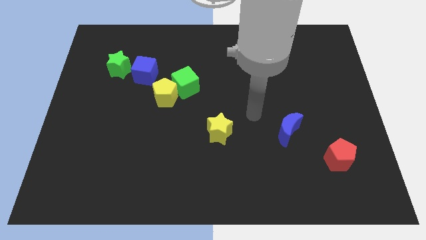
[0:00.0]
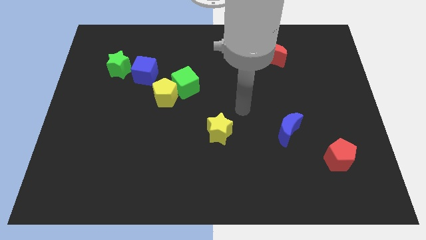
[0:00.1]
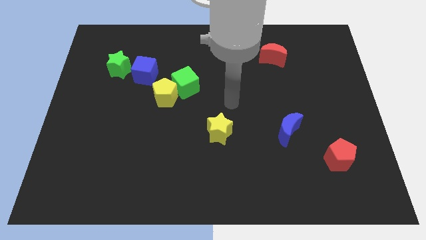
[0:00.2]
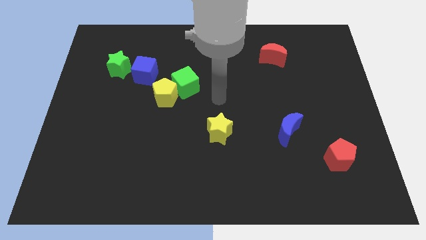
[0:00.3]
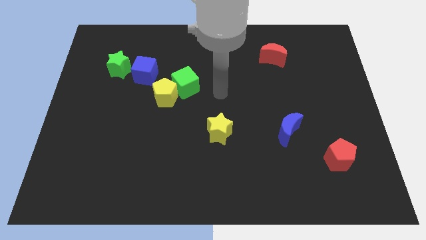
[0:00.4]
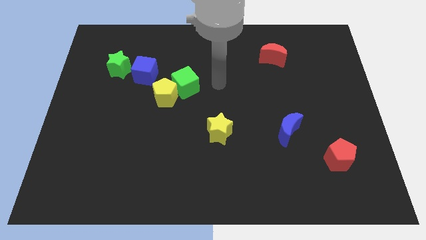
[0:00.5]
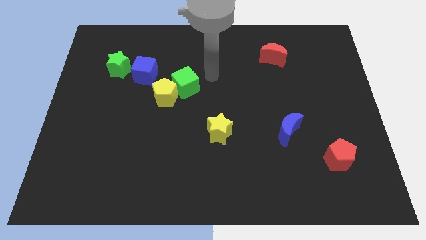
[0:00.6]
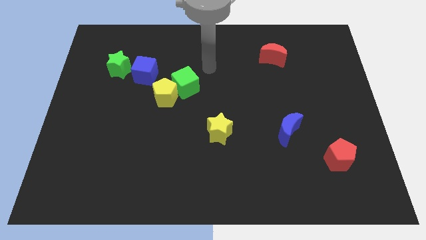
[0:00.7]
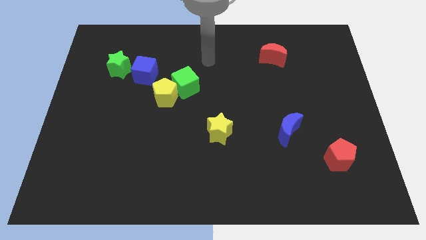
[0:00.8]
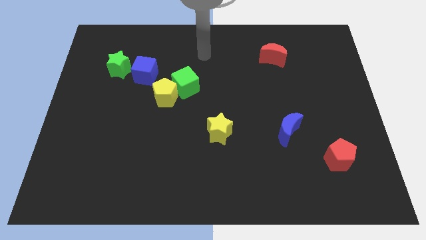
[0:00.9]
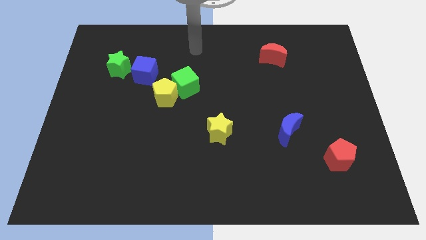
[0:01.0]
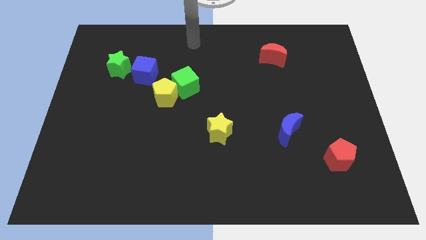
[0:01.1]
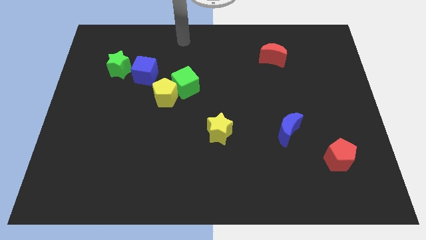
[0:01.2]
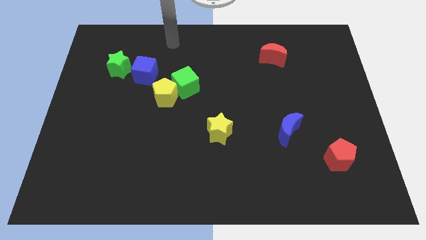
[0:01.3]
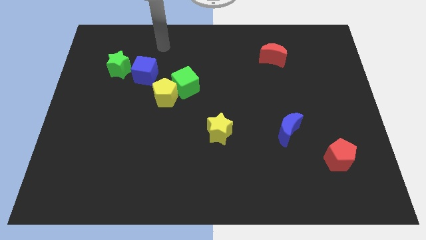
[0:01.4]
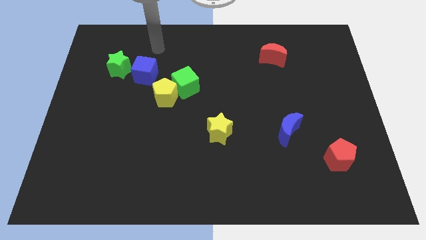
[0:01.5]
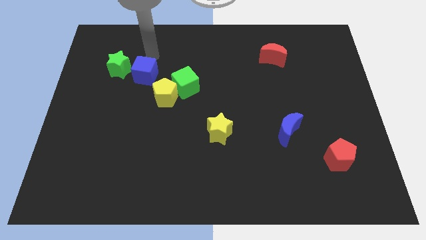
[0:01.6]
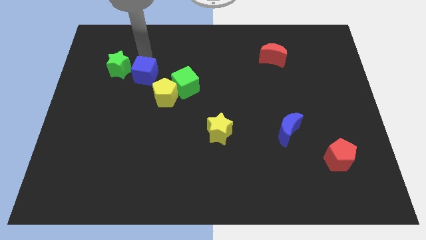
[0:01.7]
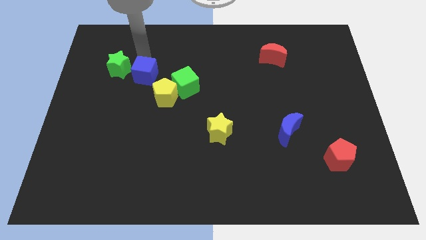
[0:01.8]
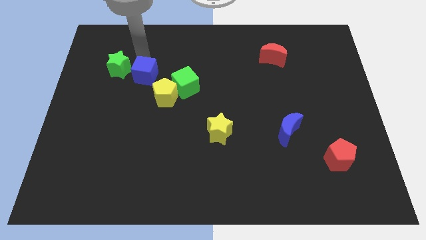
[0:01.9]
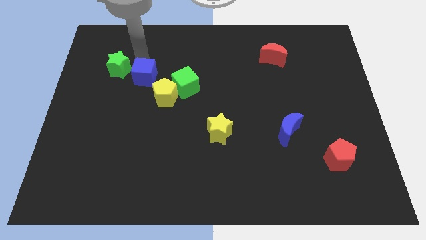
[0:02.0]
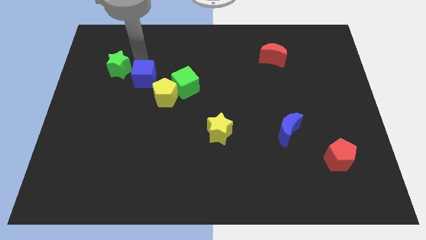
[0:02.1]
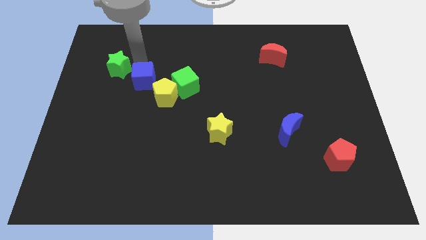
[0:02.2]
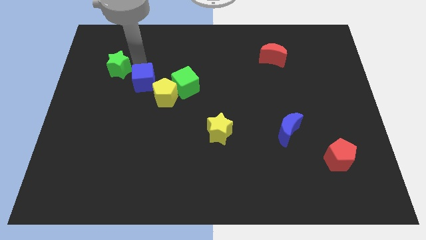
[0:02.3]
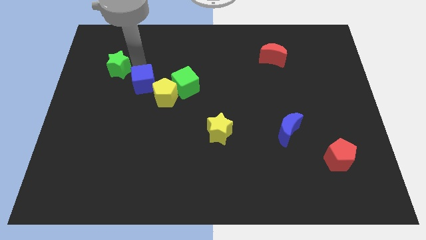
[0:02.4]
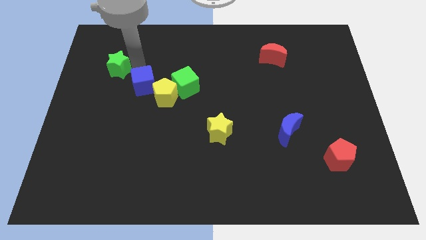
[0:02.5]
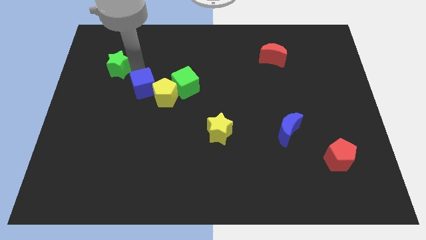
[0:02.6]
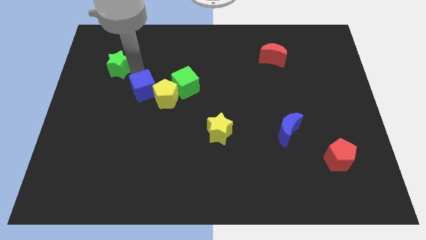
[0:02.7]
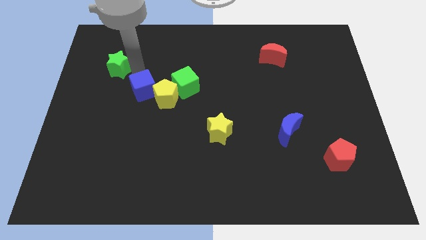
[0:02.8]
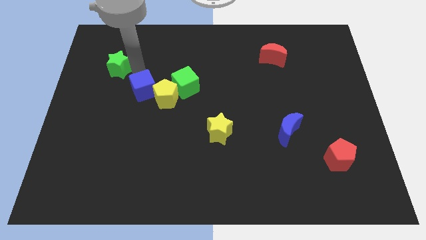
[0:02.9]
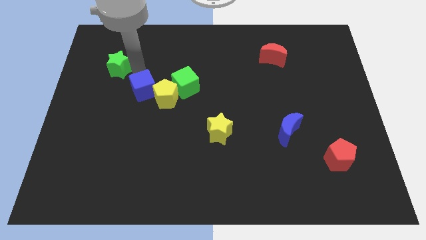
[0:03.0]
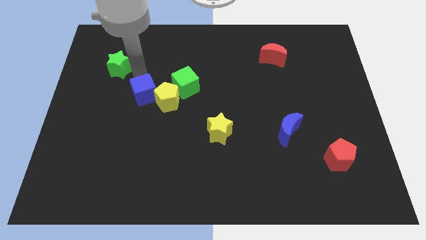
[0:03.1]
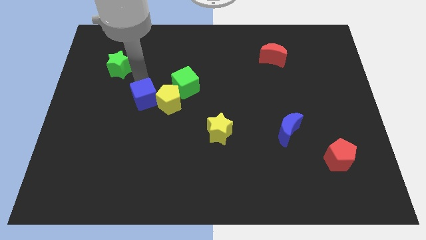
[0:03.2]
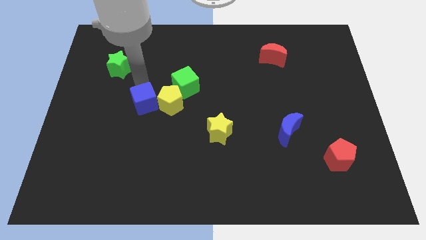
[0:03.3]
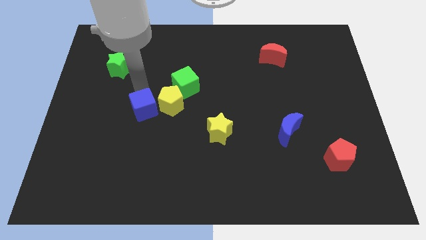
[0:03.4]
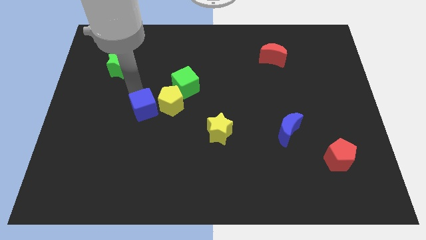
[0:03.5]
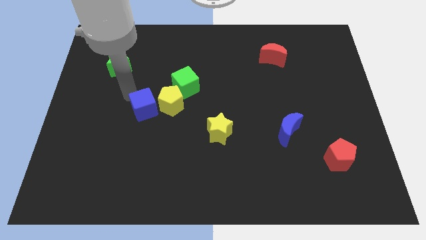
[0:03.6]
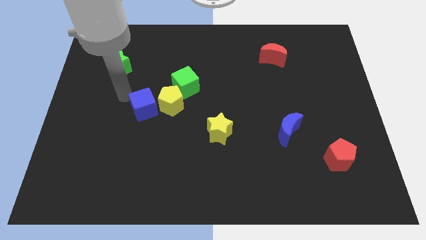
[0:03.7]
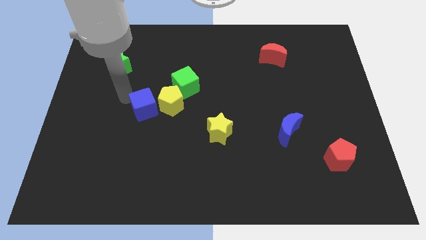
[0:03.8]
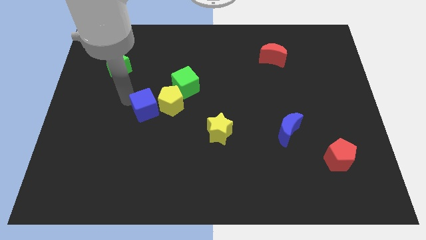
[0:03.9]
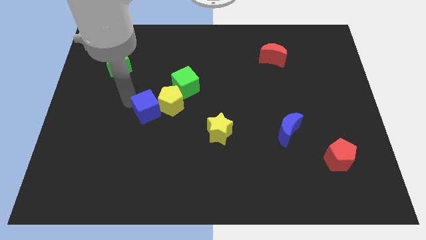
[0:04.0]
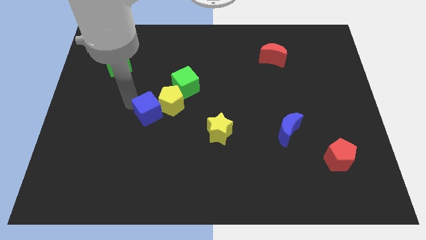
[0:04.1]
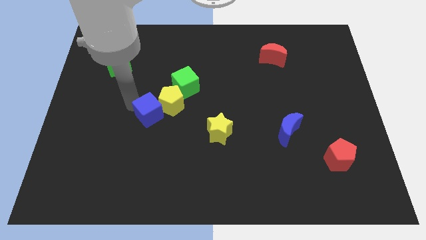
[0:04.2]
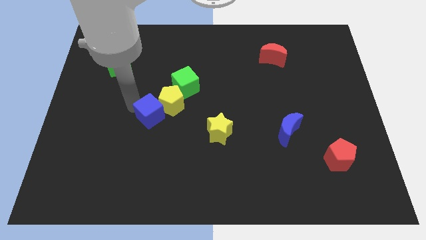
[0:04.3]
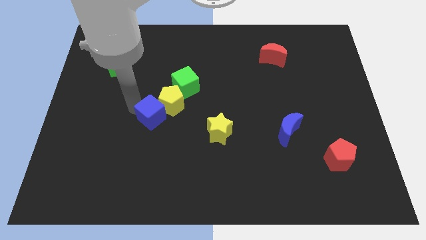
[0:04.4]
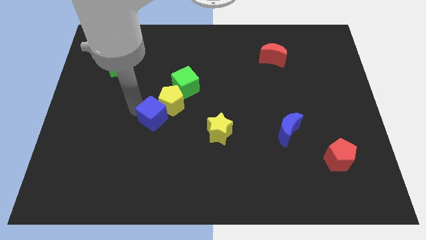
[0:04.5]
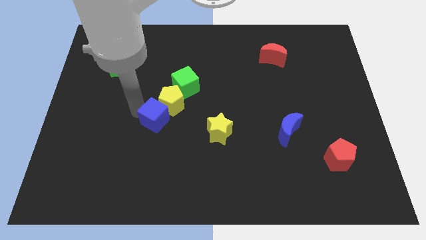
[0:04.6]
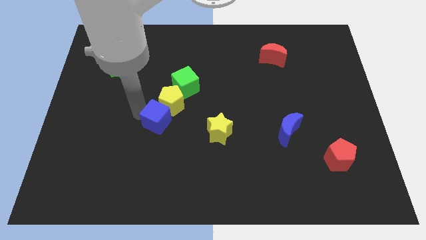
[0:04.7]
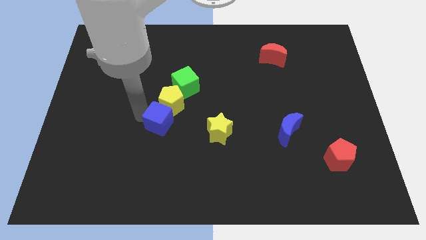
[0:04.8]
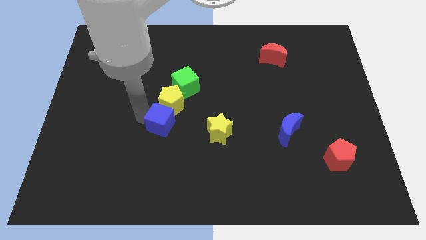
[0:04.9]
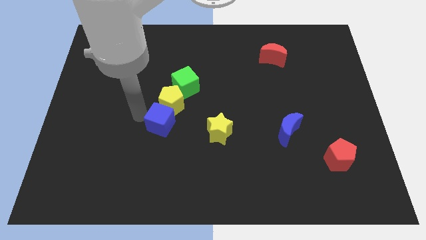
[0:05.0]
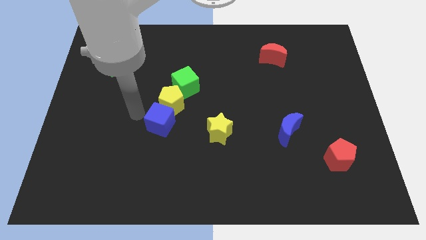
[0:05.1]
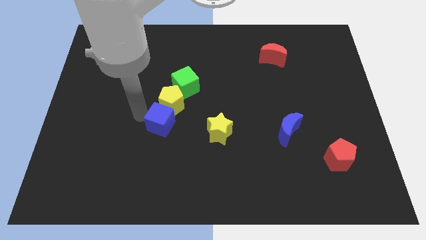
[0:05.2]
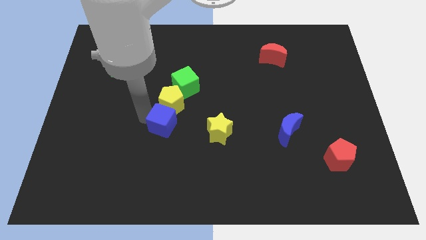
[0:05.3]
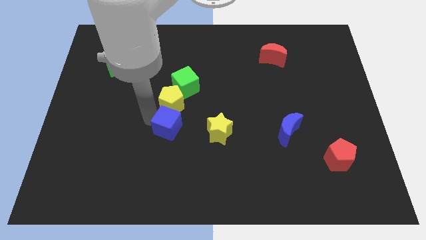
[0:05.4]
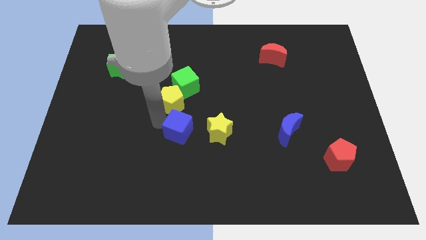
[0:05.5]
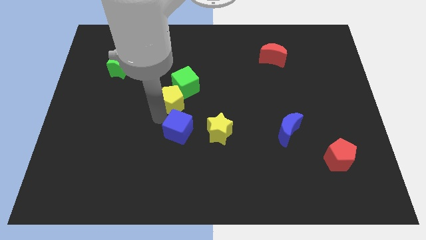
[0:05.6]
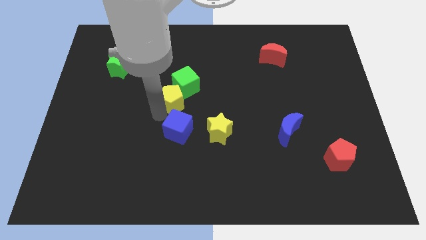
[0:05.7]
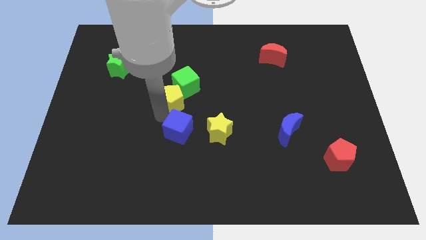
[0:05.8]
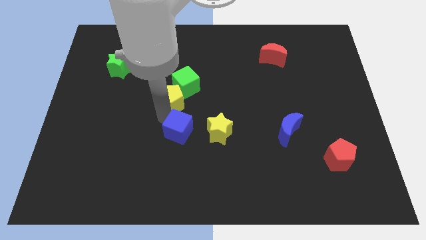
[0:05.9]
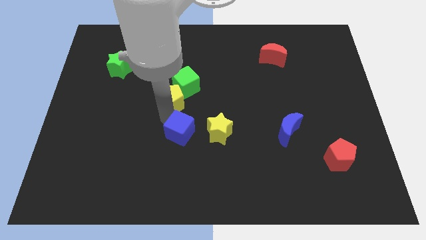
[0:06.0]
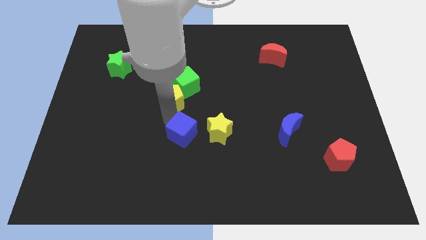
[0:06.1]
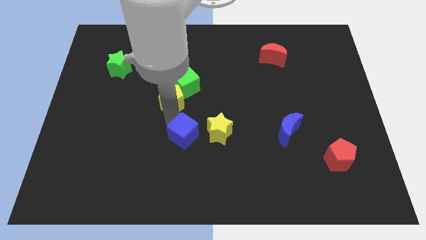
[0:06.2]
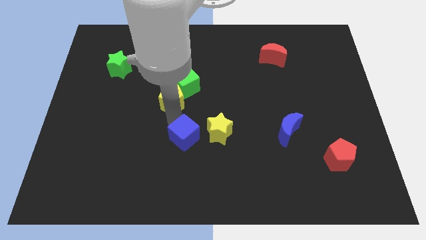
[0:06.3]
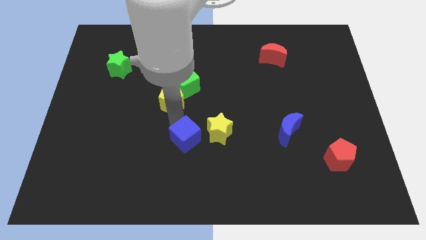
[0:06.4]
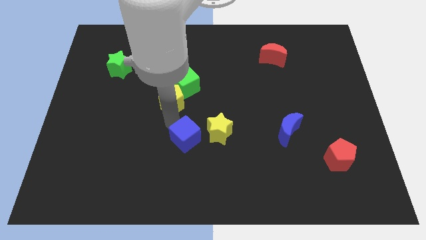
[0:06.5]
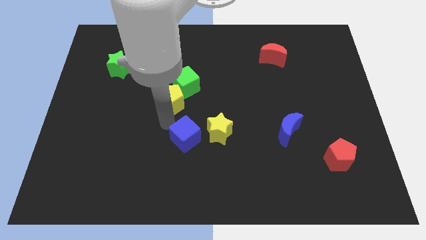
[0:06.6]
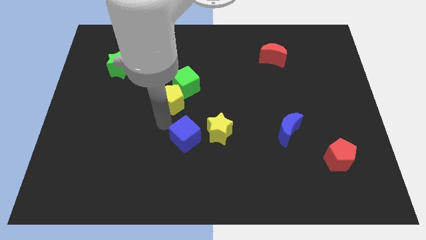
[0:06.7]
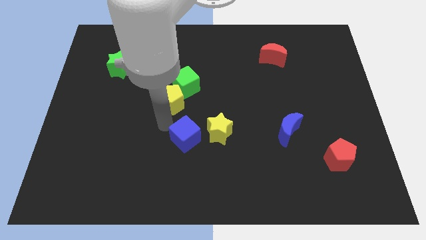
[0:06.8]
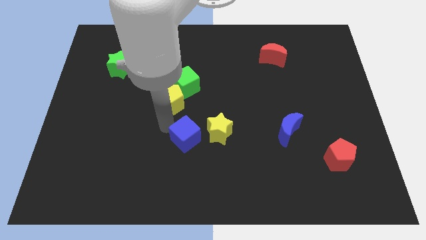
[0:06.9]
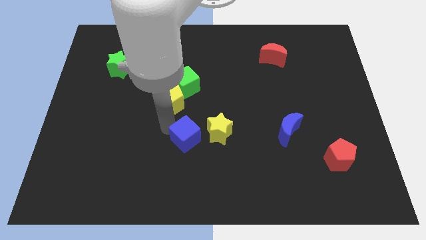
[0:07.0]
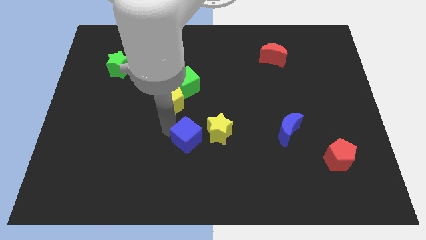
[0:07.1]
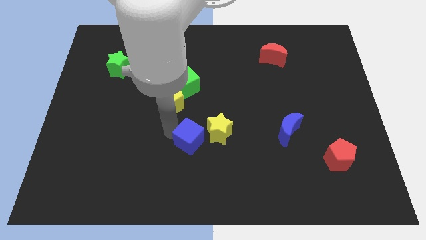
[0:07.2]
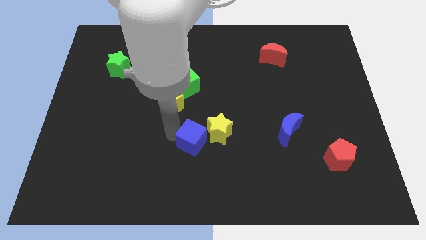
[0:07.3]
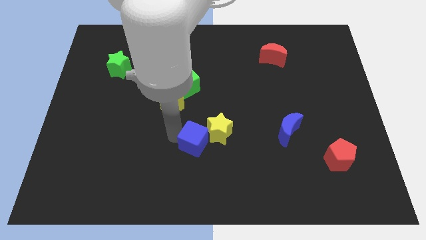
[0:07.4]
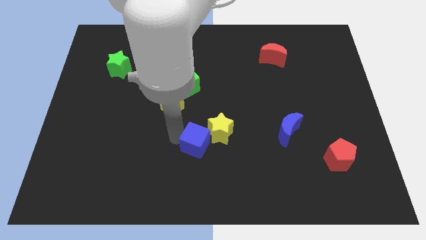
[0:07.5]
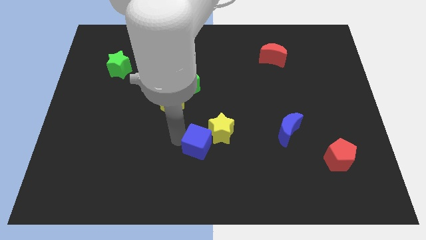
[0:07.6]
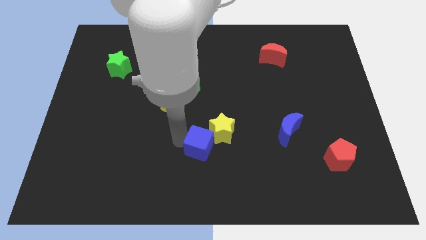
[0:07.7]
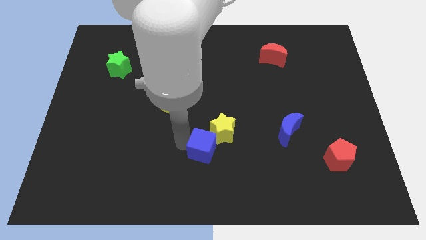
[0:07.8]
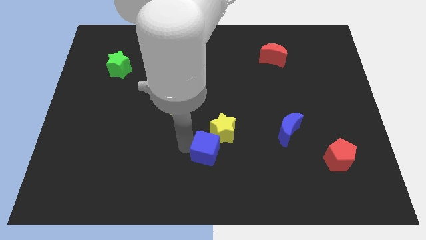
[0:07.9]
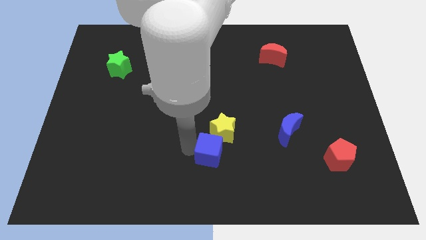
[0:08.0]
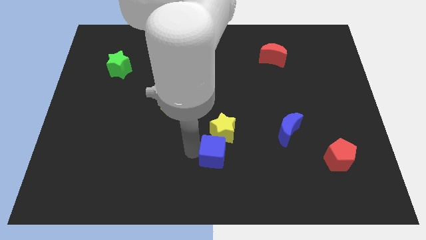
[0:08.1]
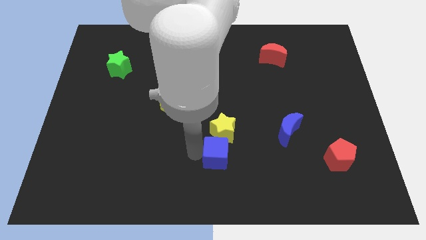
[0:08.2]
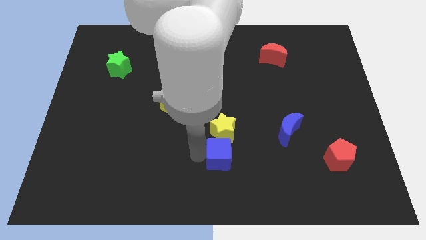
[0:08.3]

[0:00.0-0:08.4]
push the blue cube diagonally down and to the right of the yellow star
